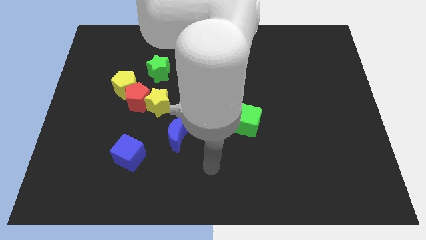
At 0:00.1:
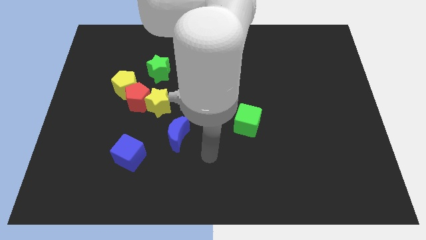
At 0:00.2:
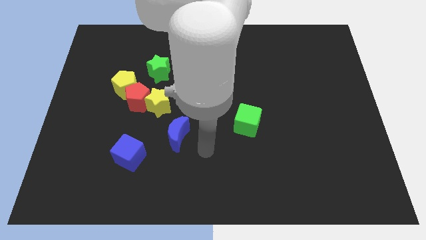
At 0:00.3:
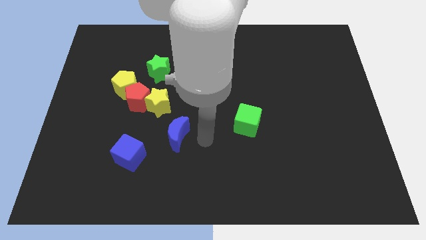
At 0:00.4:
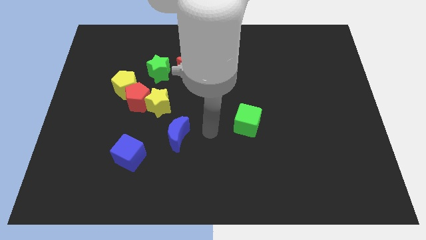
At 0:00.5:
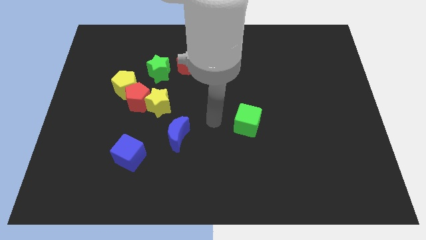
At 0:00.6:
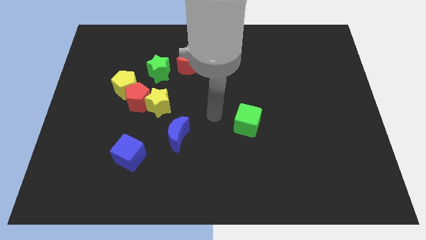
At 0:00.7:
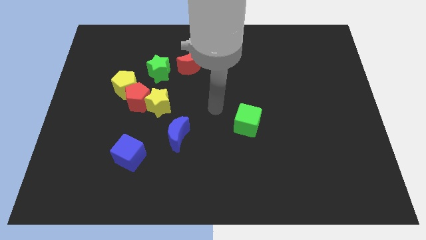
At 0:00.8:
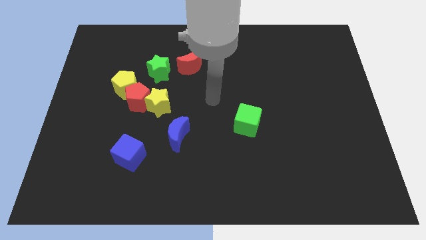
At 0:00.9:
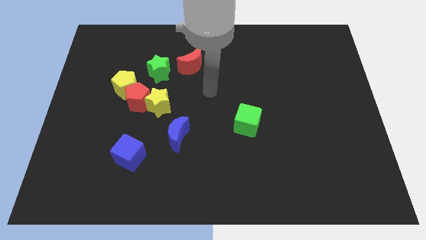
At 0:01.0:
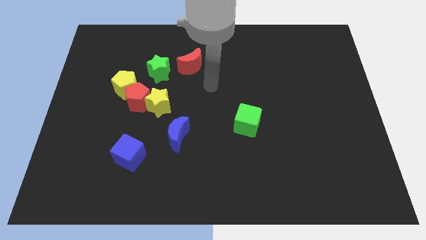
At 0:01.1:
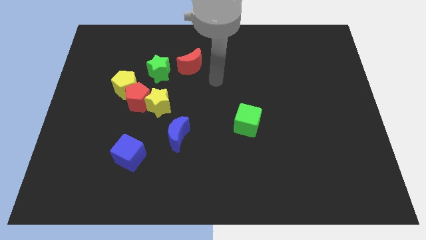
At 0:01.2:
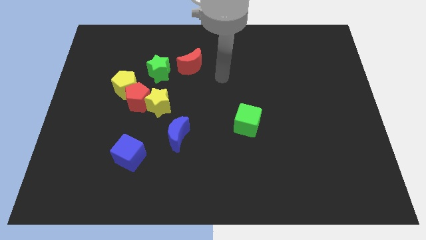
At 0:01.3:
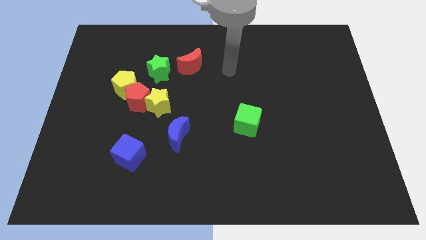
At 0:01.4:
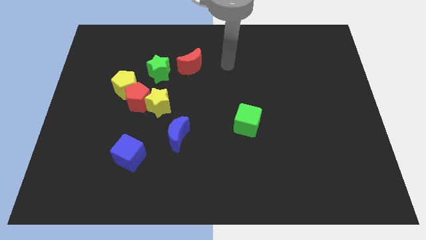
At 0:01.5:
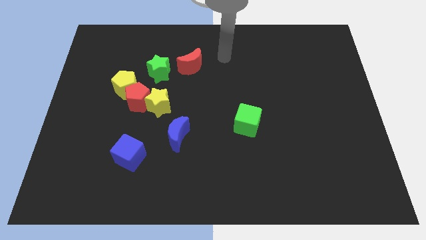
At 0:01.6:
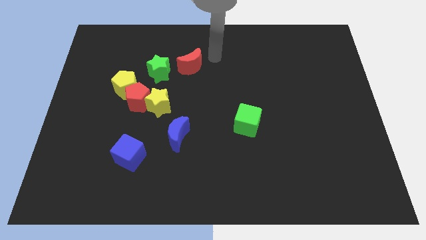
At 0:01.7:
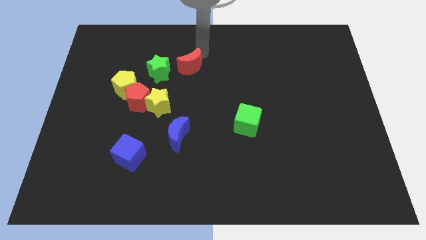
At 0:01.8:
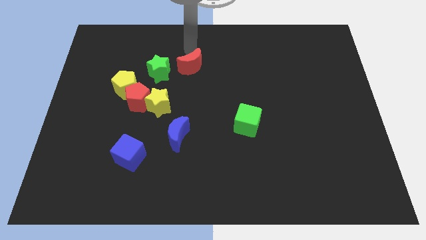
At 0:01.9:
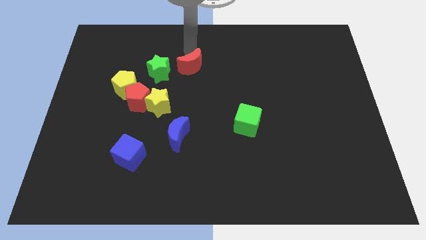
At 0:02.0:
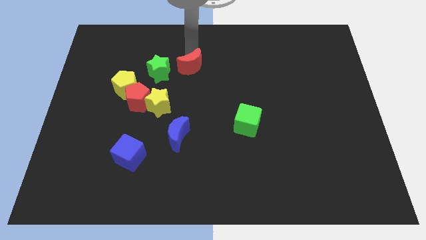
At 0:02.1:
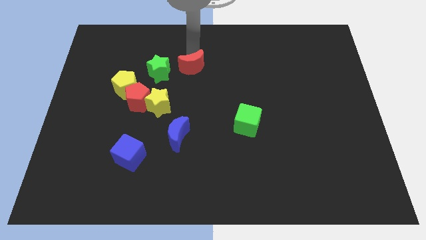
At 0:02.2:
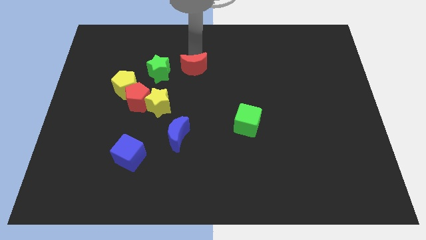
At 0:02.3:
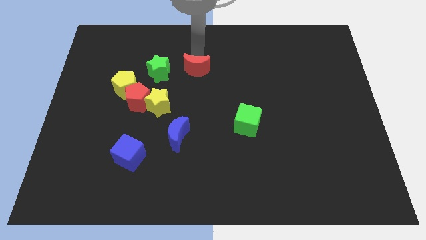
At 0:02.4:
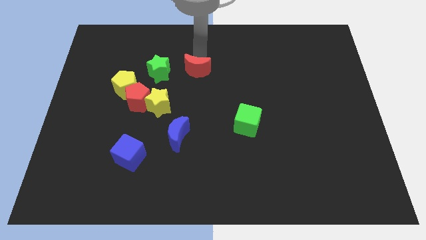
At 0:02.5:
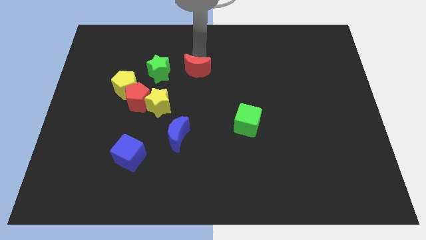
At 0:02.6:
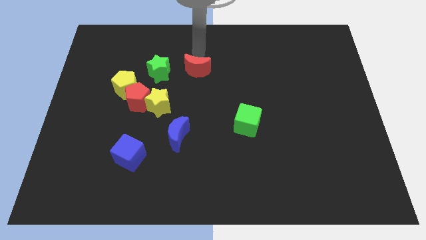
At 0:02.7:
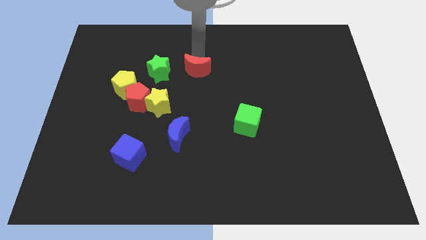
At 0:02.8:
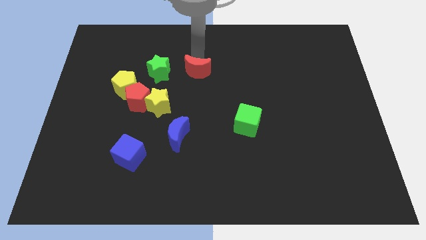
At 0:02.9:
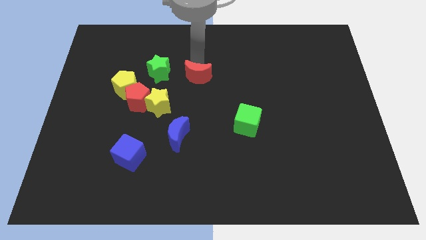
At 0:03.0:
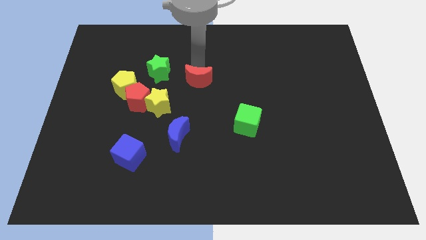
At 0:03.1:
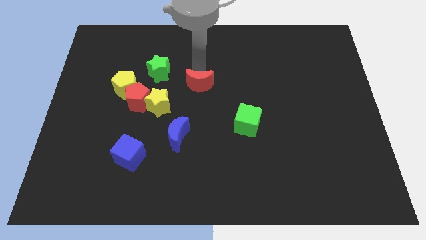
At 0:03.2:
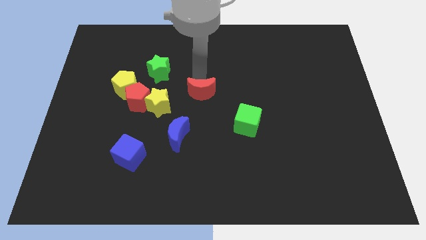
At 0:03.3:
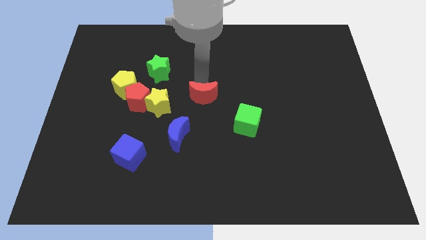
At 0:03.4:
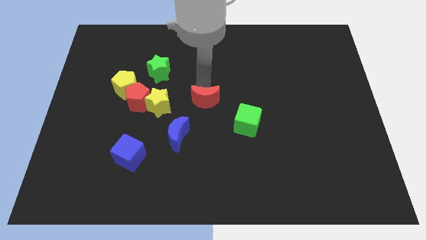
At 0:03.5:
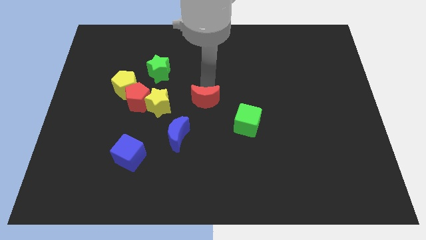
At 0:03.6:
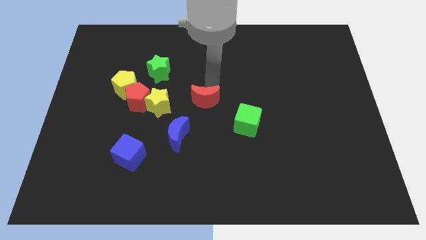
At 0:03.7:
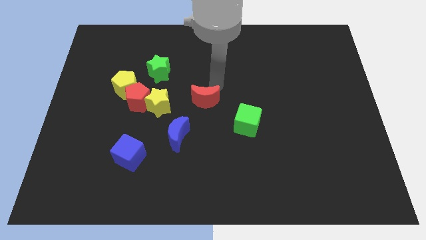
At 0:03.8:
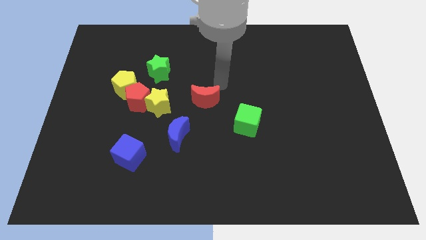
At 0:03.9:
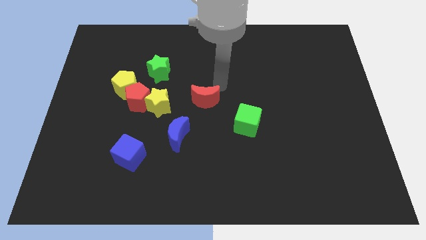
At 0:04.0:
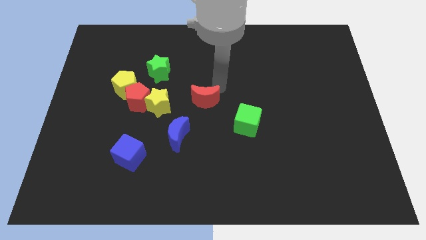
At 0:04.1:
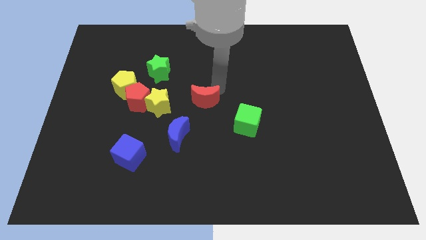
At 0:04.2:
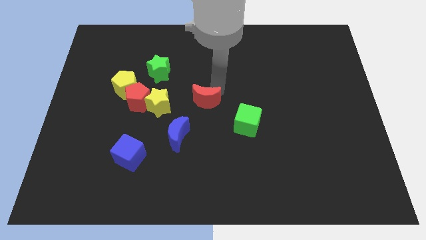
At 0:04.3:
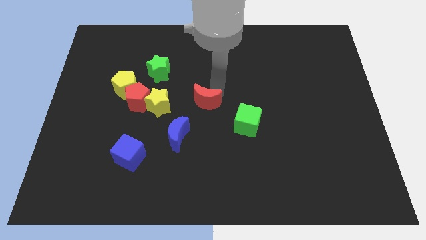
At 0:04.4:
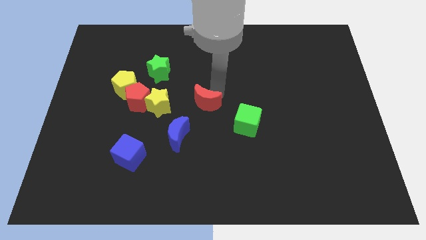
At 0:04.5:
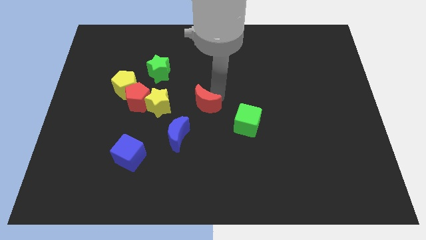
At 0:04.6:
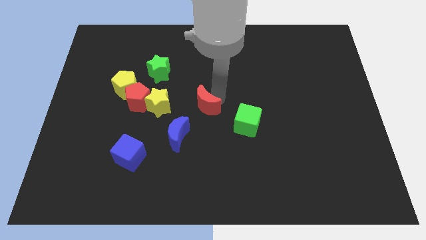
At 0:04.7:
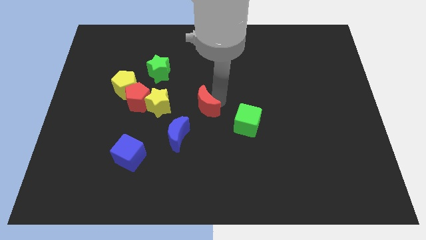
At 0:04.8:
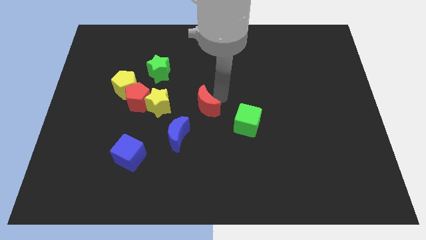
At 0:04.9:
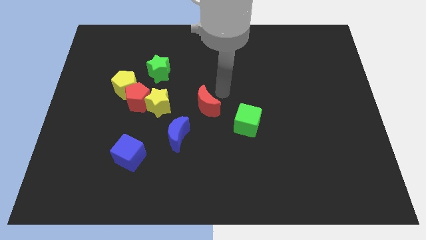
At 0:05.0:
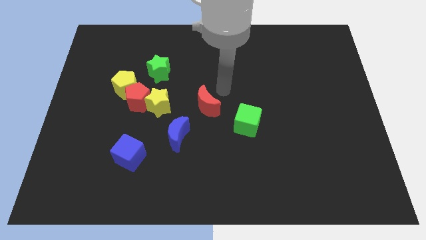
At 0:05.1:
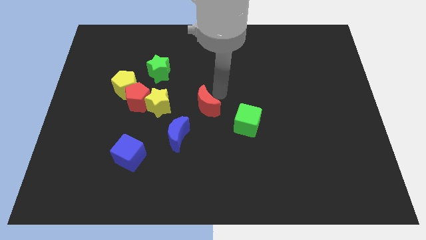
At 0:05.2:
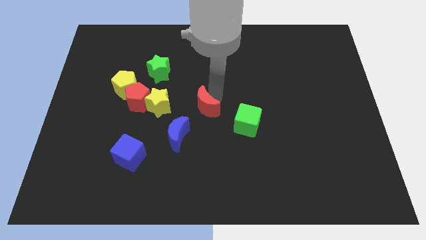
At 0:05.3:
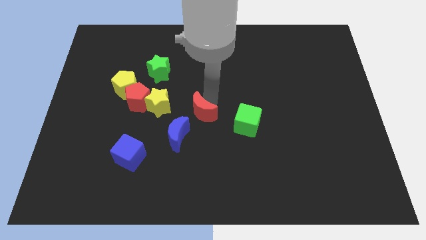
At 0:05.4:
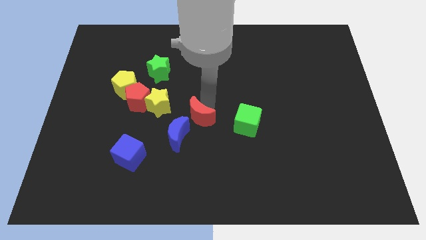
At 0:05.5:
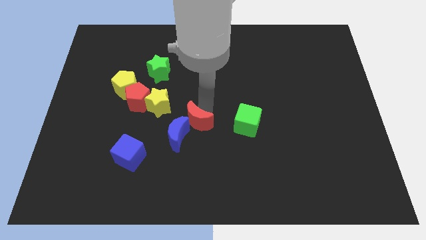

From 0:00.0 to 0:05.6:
move the red moon towards the blue moon
